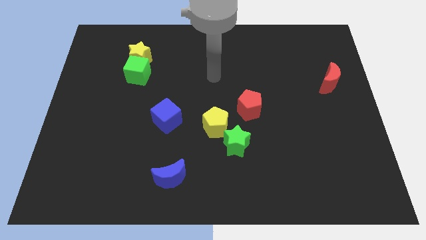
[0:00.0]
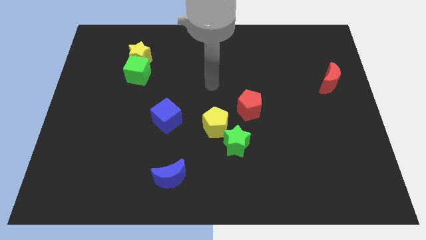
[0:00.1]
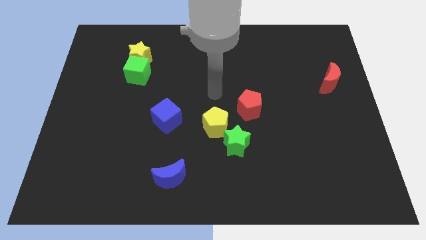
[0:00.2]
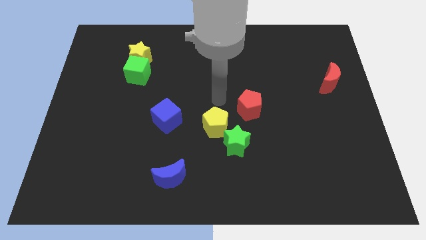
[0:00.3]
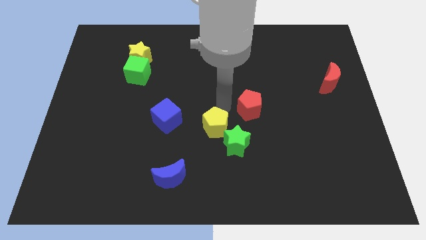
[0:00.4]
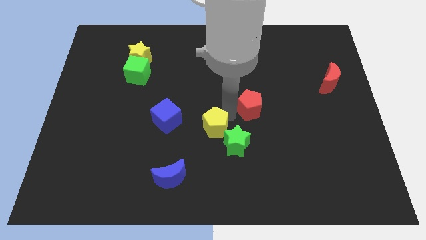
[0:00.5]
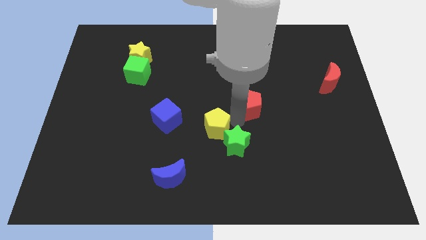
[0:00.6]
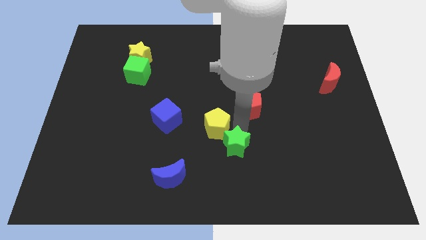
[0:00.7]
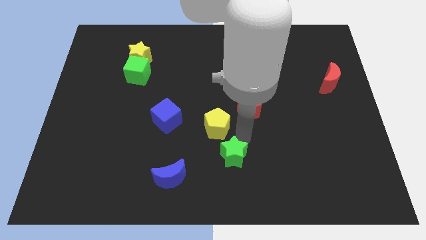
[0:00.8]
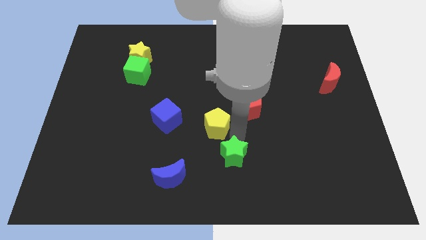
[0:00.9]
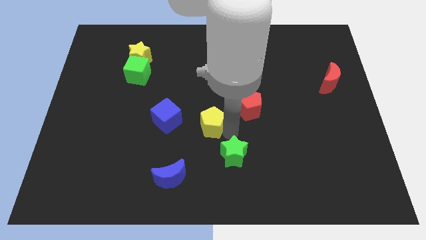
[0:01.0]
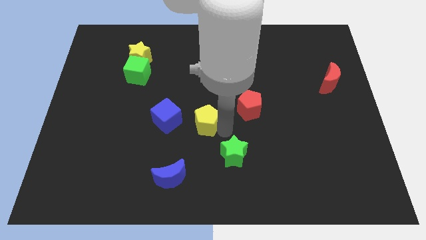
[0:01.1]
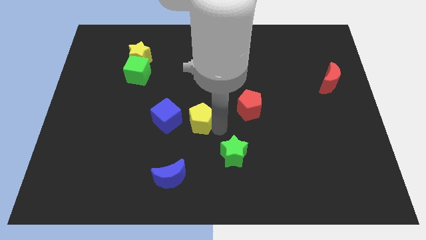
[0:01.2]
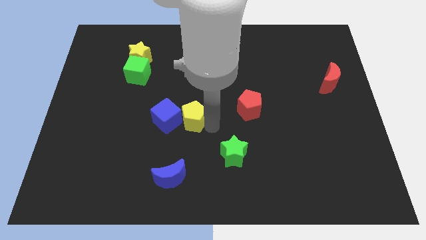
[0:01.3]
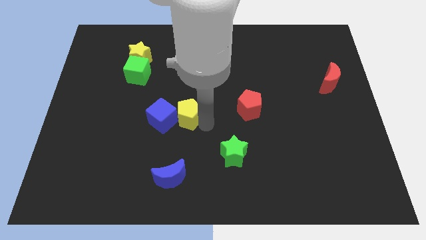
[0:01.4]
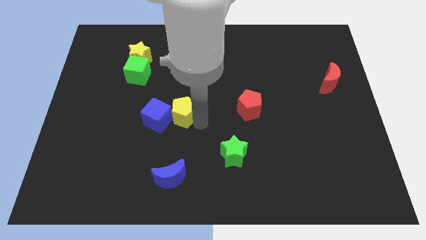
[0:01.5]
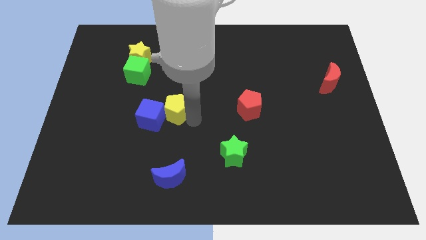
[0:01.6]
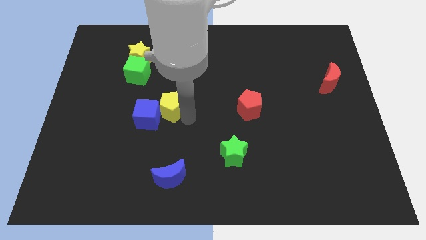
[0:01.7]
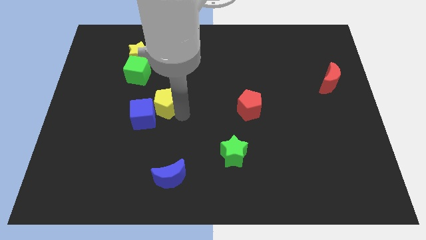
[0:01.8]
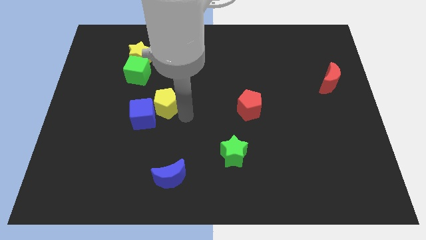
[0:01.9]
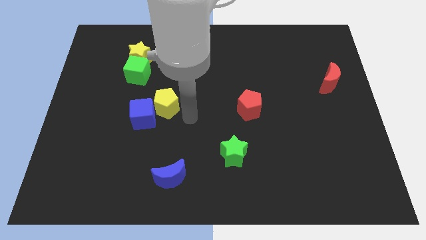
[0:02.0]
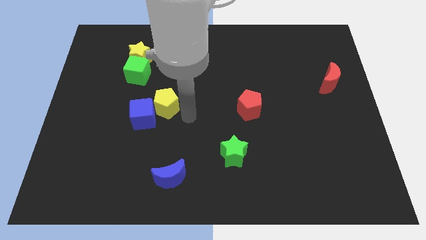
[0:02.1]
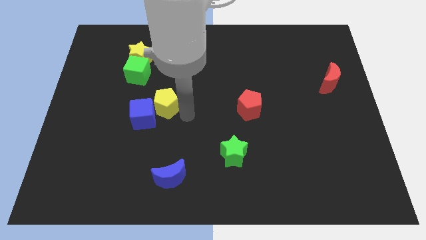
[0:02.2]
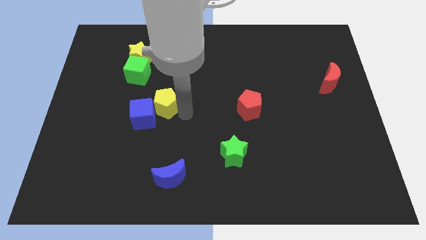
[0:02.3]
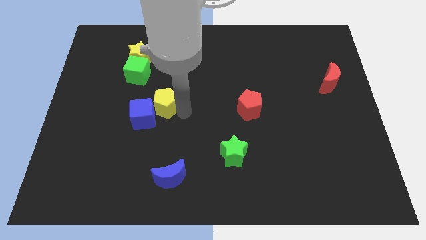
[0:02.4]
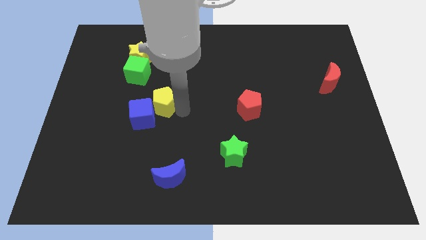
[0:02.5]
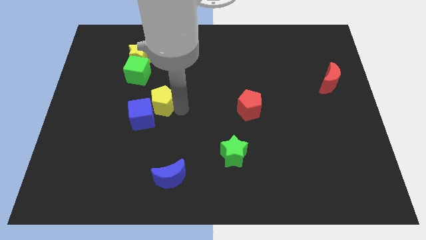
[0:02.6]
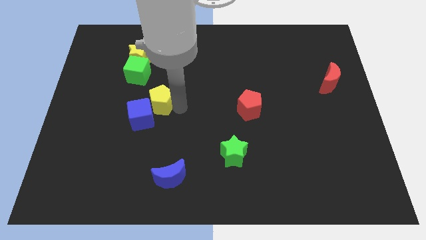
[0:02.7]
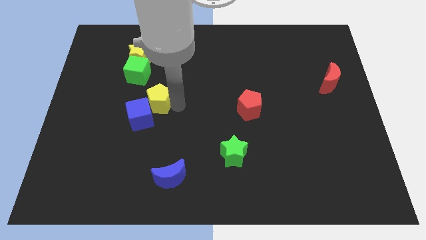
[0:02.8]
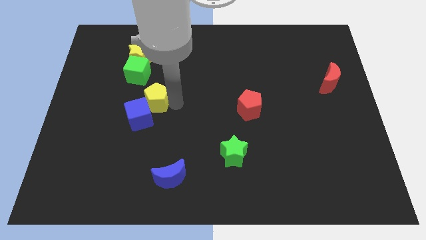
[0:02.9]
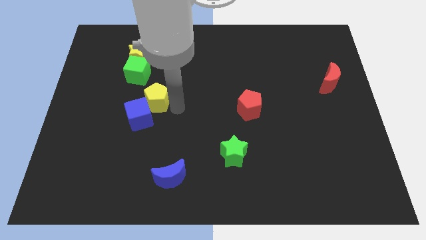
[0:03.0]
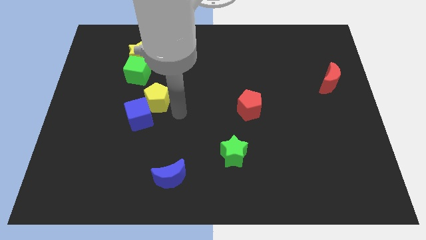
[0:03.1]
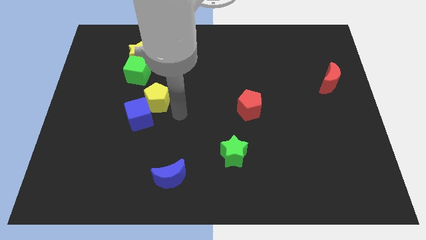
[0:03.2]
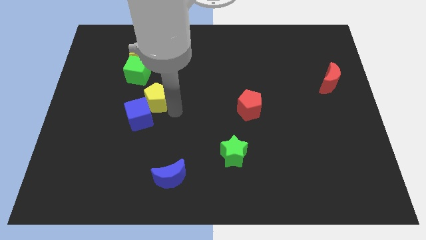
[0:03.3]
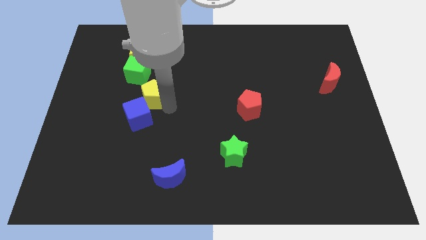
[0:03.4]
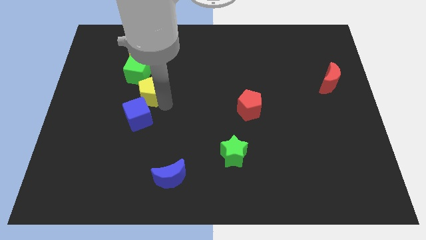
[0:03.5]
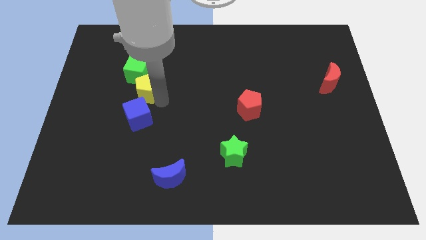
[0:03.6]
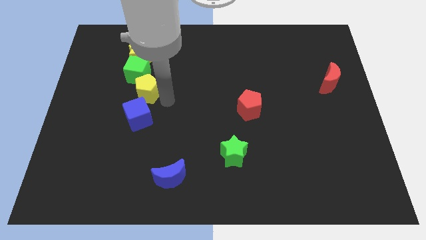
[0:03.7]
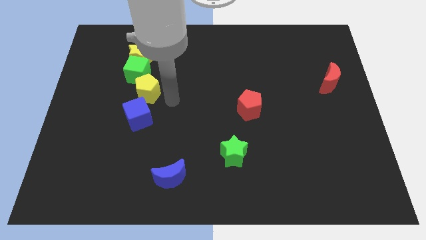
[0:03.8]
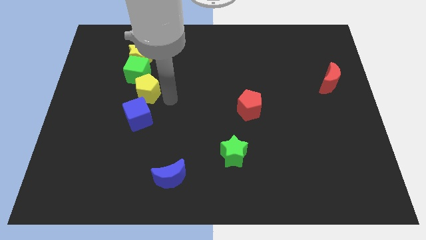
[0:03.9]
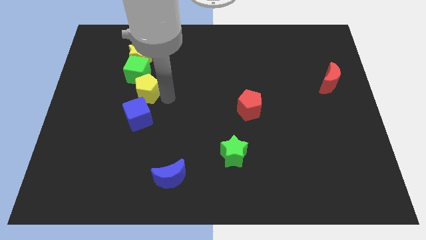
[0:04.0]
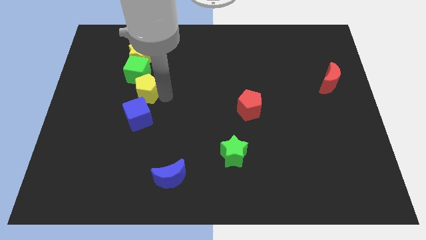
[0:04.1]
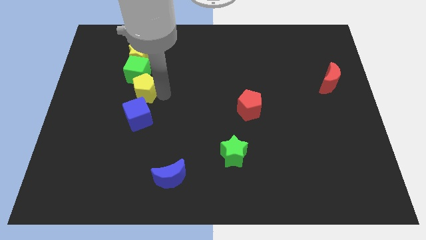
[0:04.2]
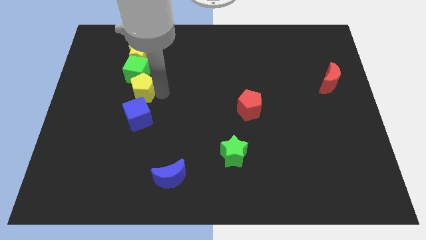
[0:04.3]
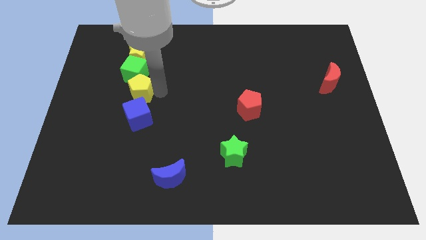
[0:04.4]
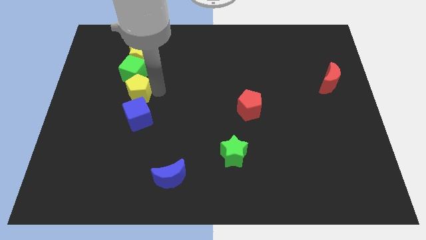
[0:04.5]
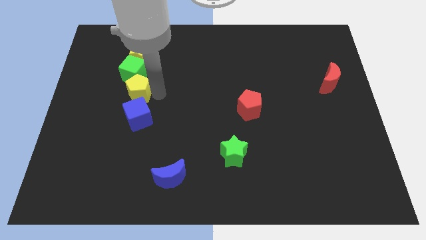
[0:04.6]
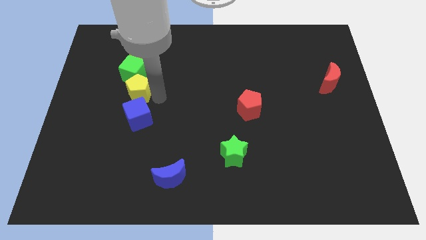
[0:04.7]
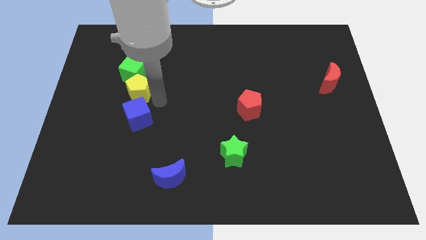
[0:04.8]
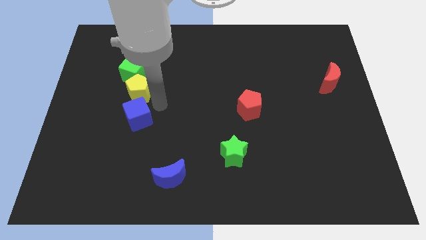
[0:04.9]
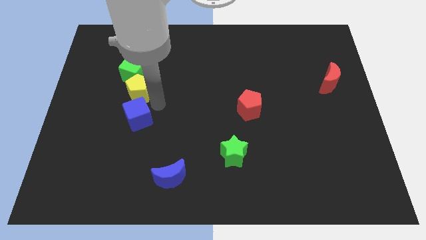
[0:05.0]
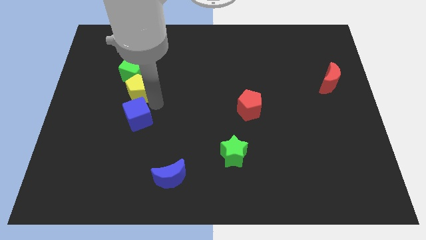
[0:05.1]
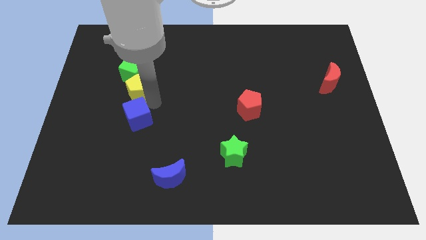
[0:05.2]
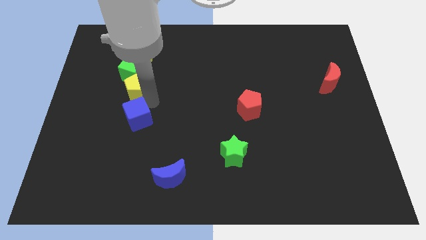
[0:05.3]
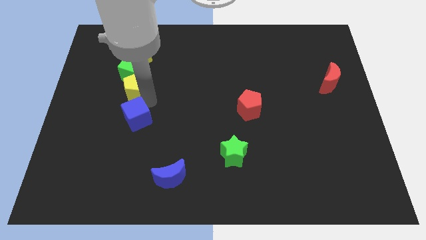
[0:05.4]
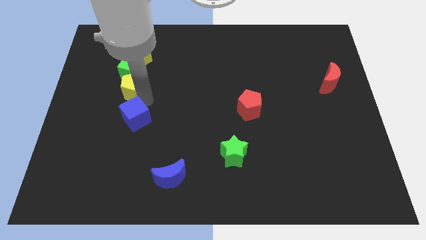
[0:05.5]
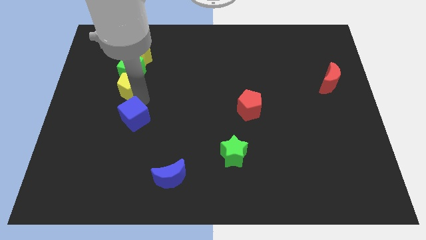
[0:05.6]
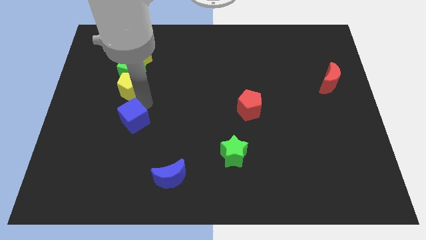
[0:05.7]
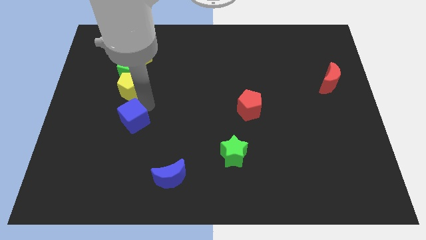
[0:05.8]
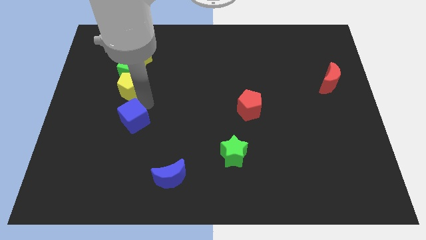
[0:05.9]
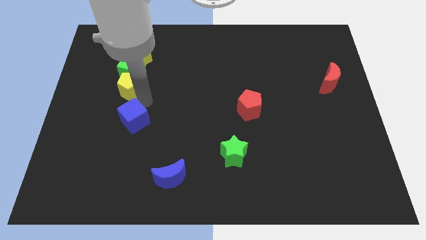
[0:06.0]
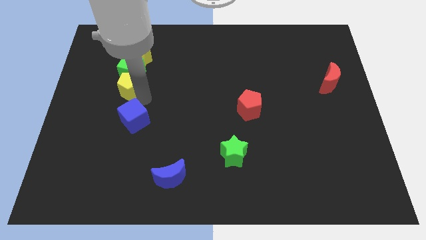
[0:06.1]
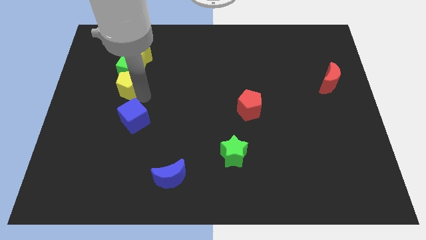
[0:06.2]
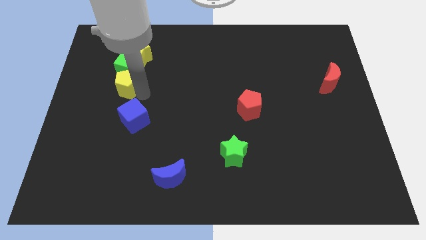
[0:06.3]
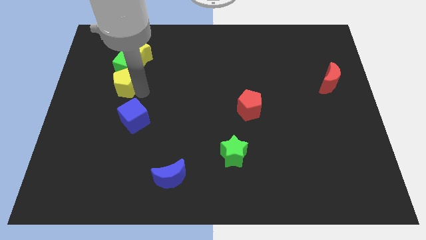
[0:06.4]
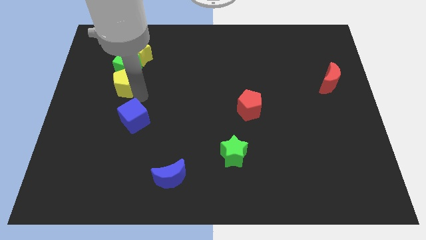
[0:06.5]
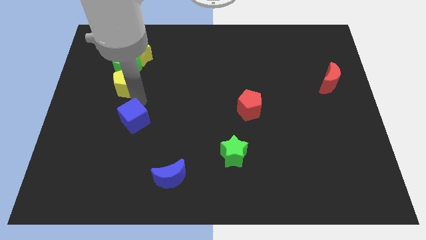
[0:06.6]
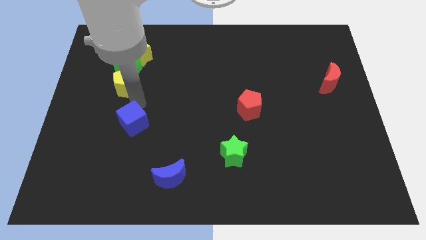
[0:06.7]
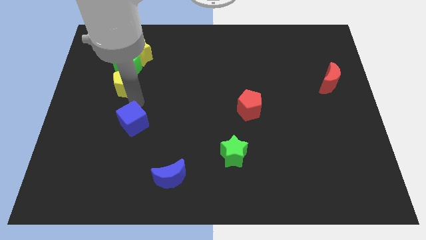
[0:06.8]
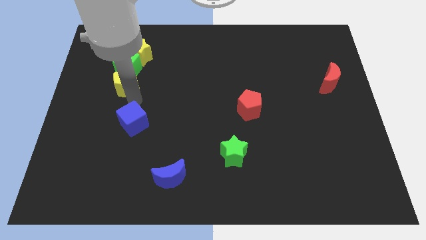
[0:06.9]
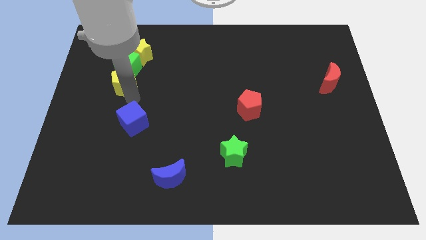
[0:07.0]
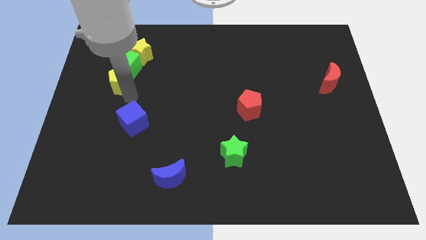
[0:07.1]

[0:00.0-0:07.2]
push the yellow pentagon to the bottom left side of the yellow star

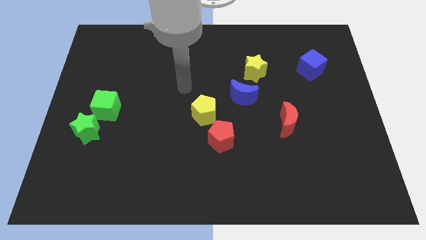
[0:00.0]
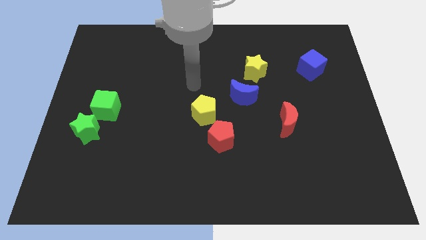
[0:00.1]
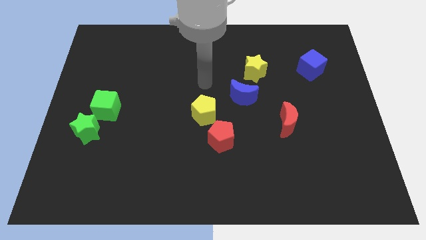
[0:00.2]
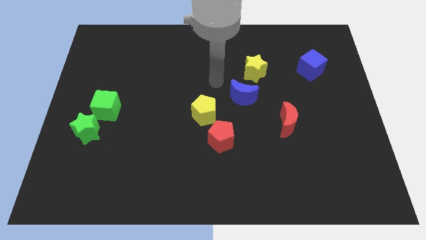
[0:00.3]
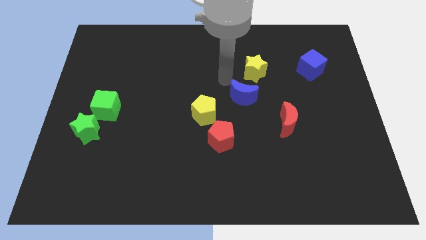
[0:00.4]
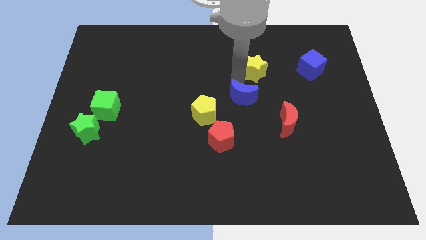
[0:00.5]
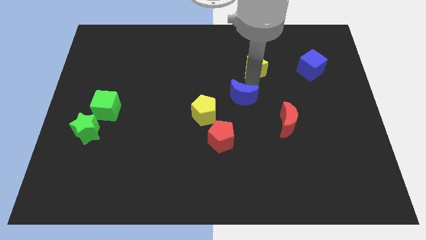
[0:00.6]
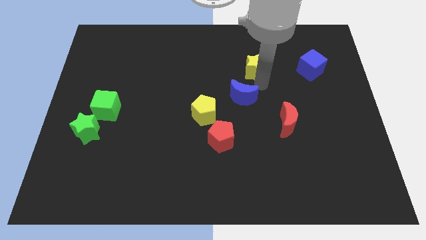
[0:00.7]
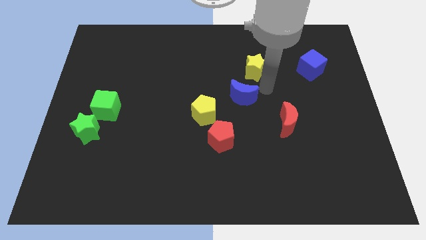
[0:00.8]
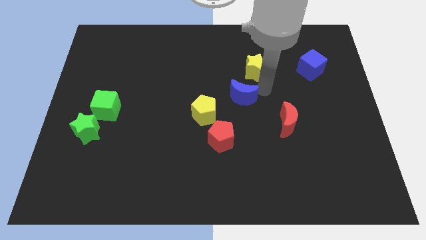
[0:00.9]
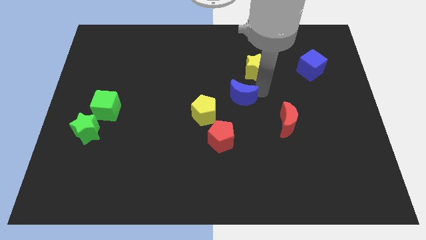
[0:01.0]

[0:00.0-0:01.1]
move the blue moon above the red pentagon

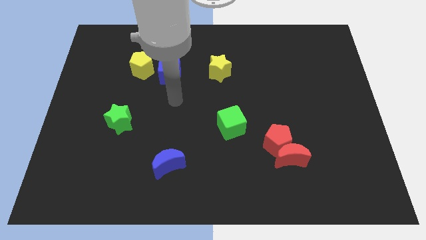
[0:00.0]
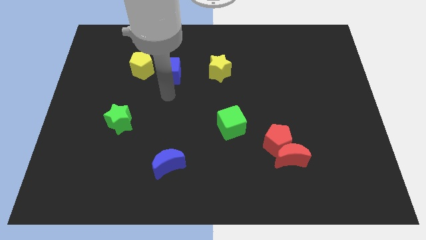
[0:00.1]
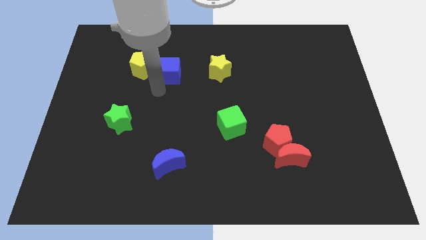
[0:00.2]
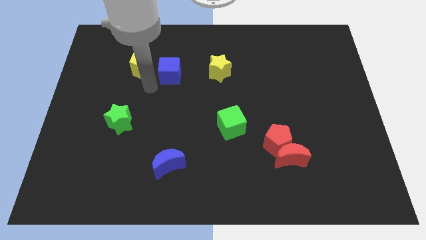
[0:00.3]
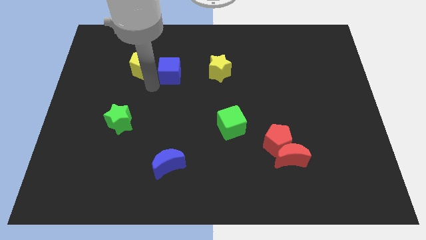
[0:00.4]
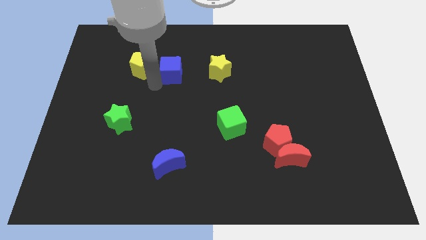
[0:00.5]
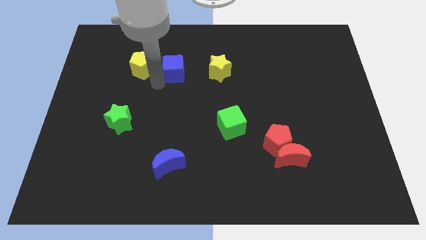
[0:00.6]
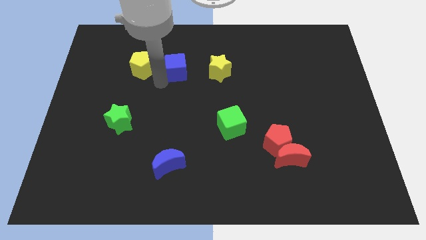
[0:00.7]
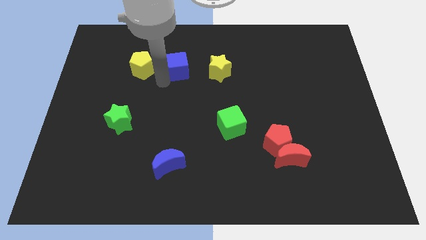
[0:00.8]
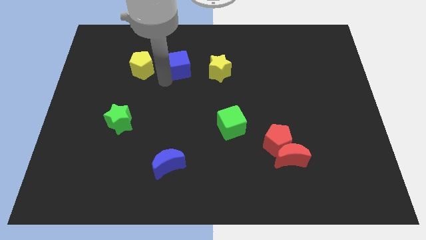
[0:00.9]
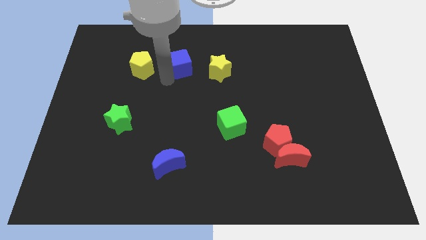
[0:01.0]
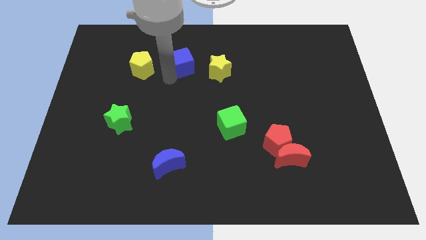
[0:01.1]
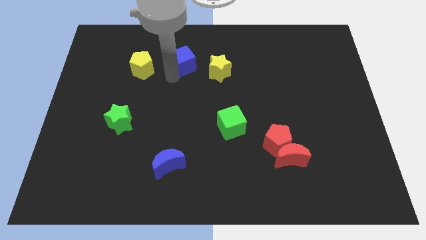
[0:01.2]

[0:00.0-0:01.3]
slide the blue cube to the top left of the yellow star
